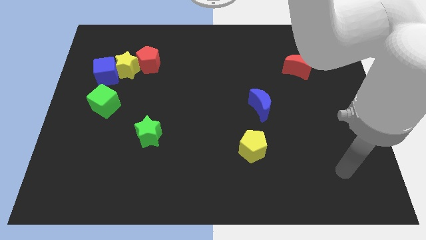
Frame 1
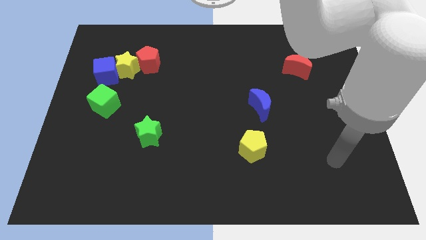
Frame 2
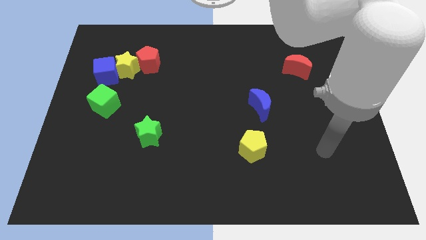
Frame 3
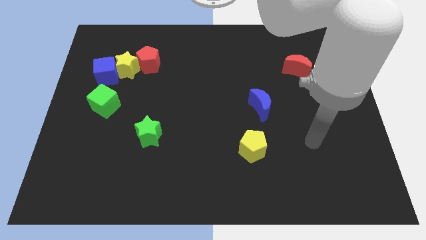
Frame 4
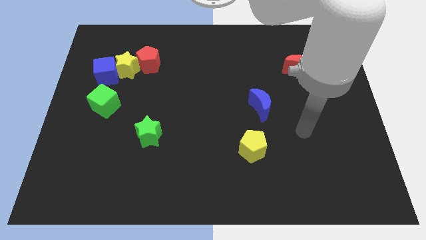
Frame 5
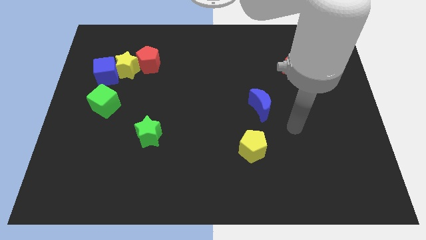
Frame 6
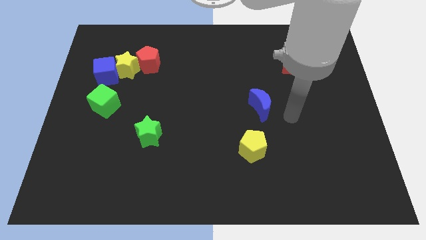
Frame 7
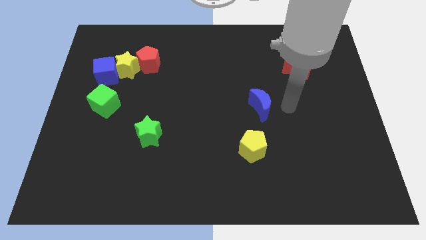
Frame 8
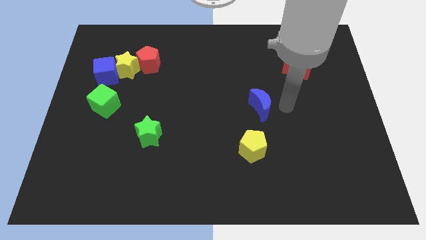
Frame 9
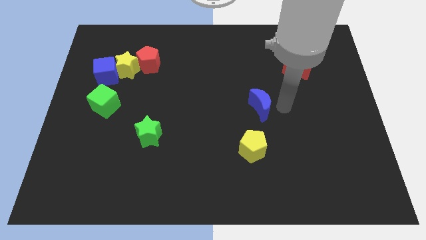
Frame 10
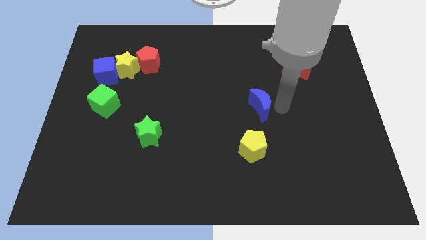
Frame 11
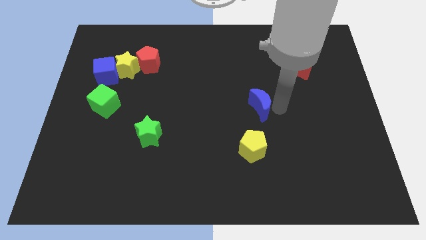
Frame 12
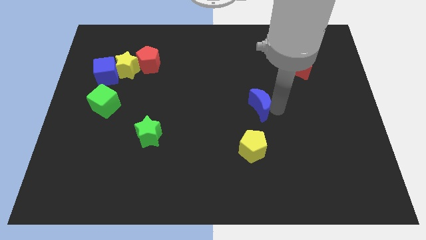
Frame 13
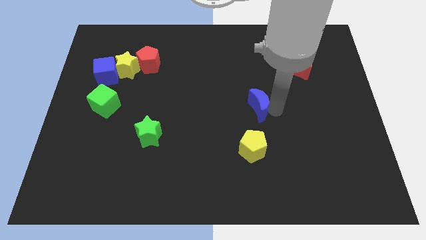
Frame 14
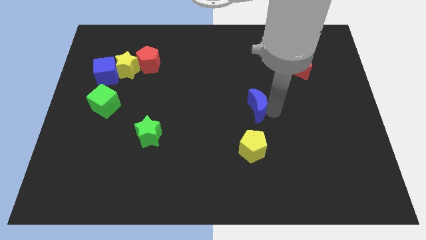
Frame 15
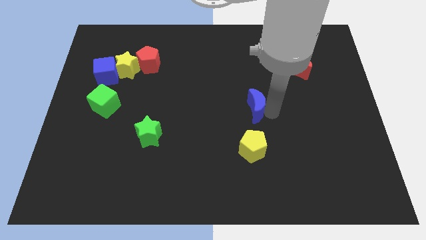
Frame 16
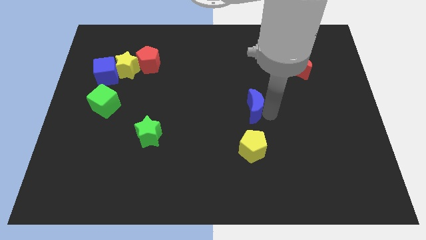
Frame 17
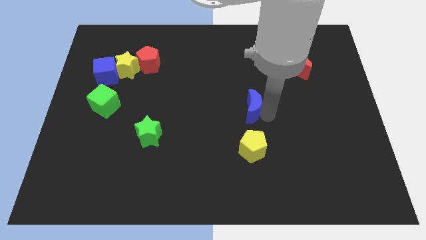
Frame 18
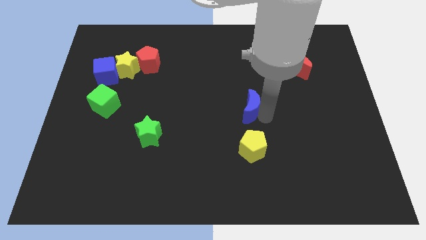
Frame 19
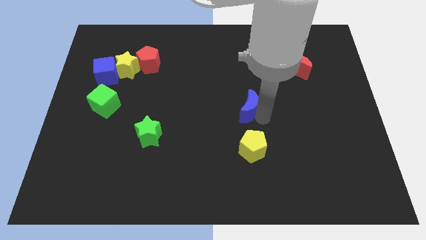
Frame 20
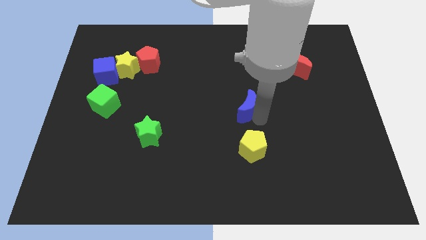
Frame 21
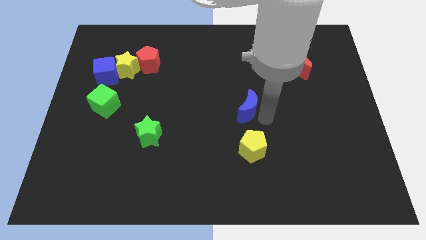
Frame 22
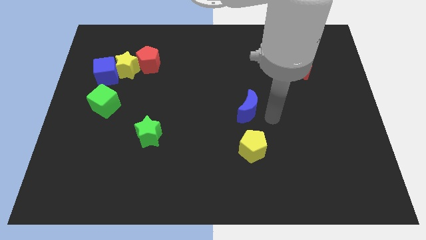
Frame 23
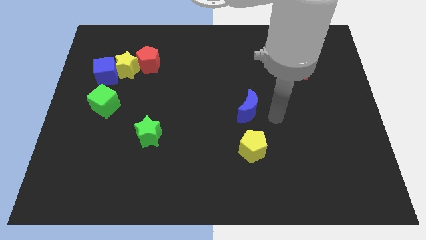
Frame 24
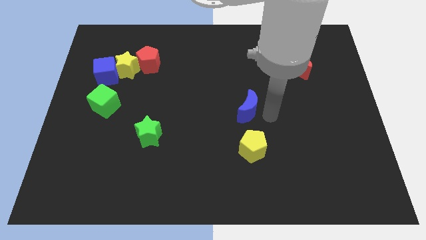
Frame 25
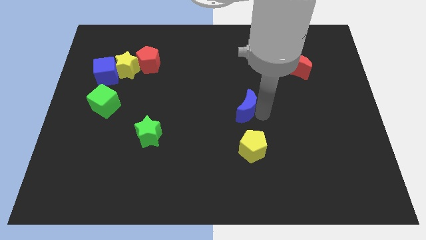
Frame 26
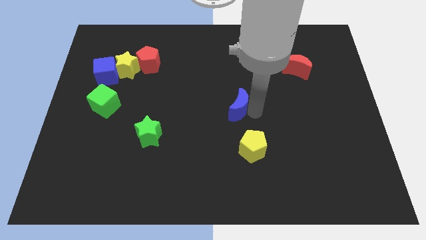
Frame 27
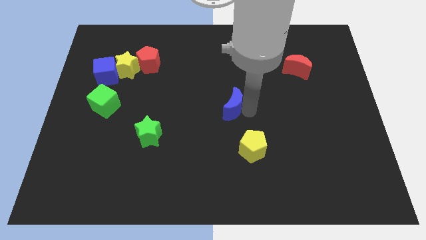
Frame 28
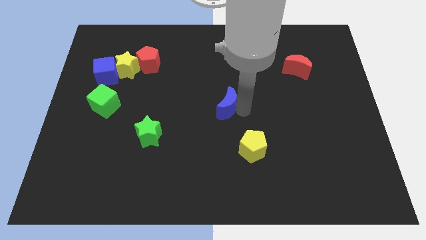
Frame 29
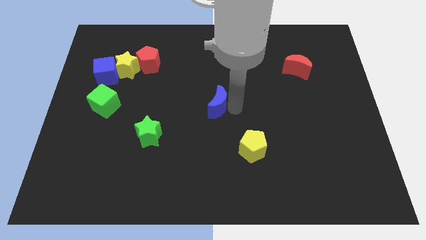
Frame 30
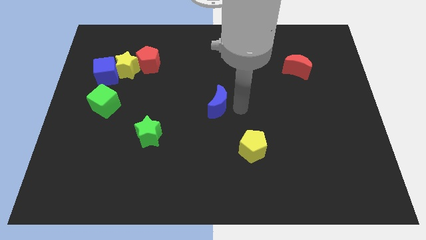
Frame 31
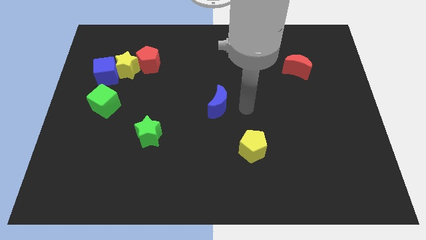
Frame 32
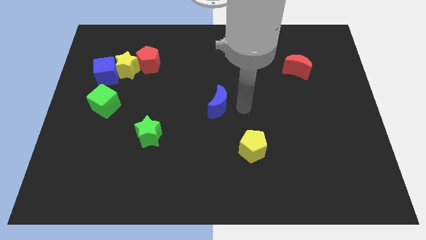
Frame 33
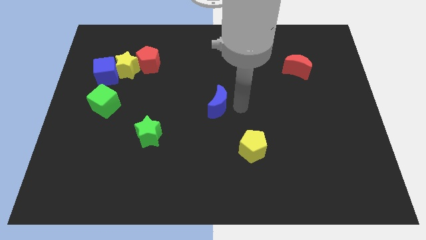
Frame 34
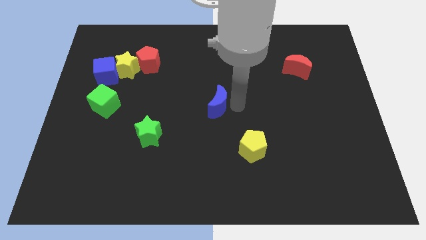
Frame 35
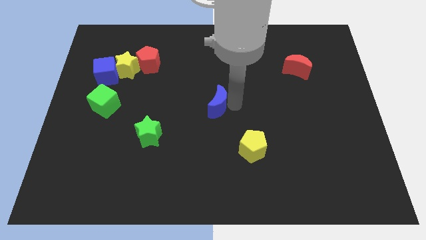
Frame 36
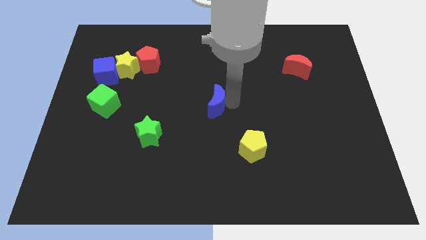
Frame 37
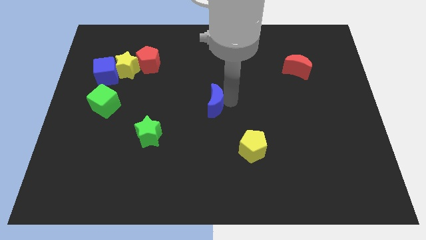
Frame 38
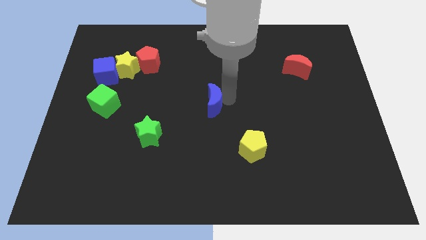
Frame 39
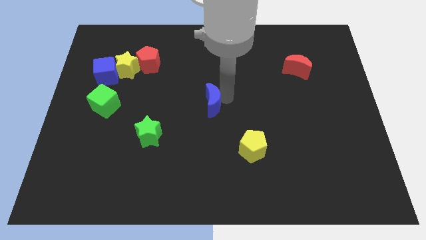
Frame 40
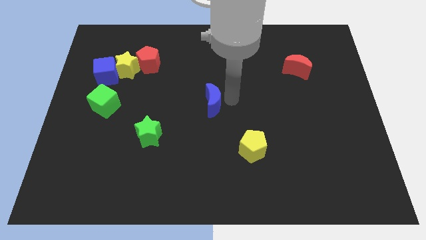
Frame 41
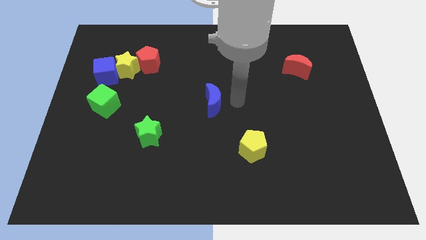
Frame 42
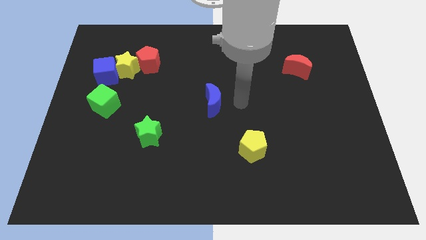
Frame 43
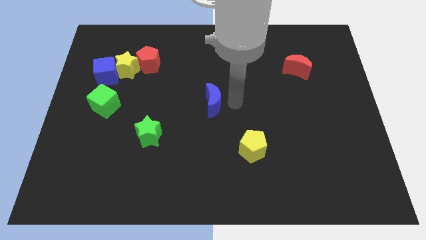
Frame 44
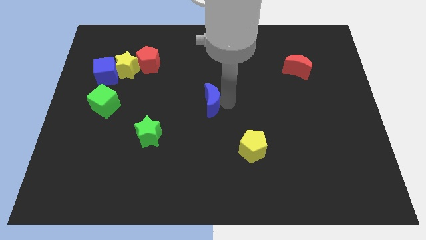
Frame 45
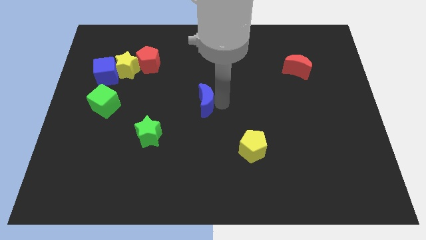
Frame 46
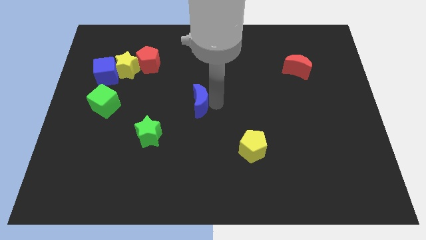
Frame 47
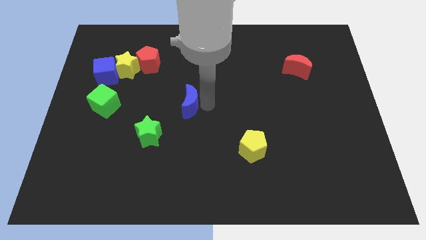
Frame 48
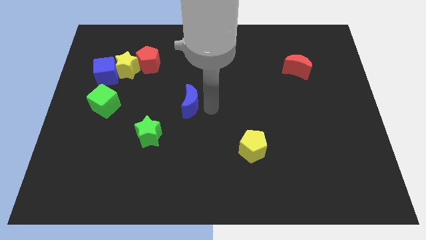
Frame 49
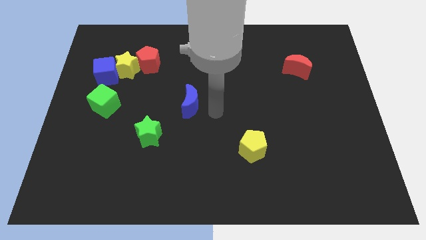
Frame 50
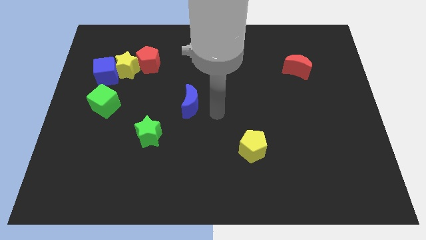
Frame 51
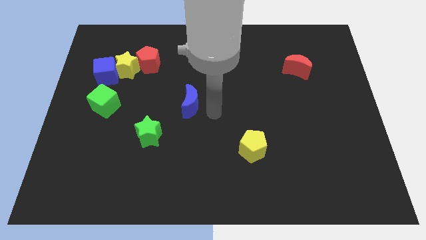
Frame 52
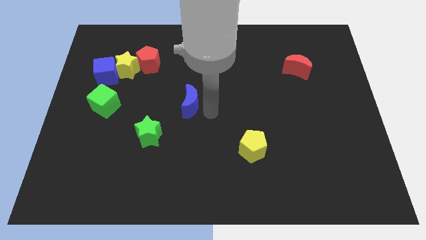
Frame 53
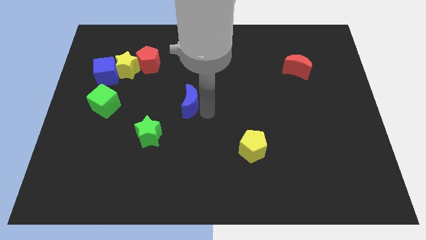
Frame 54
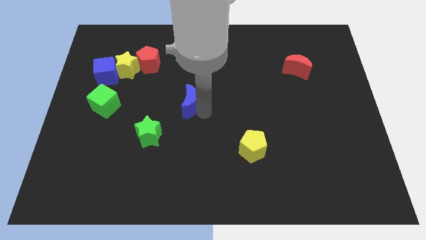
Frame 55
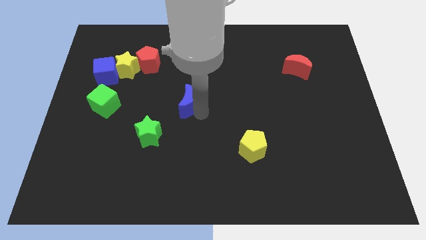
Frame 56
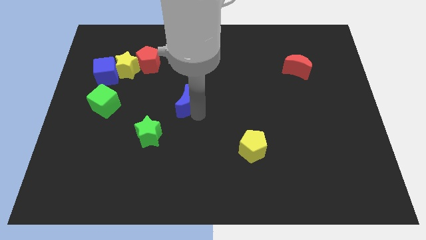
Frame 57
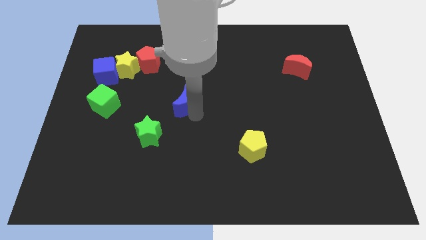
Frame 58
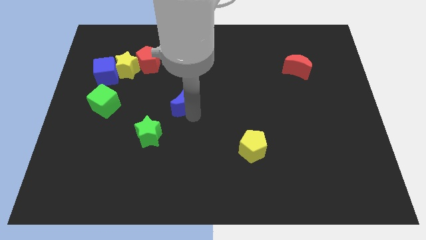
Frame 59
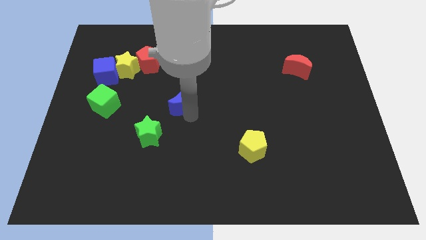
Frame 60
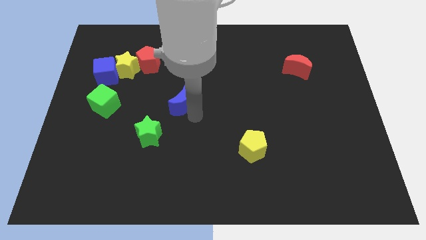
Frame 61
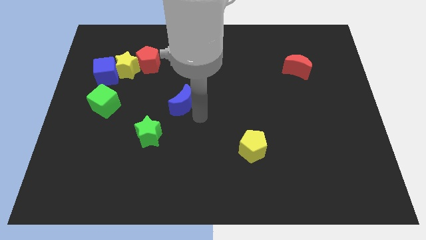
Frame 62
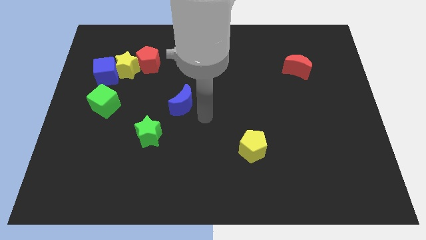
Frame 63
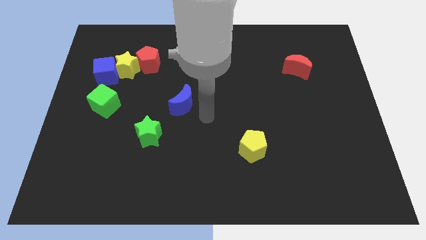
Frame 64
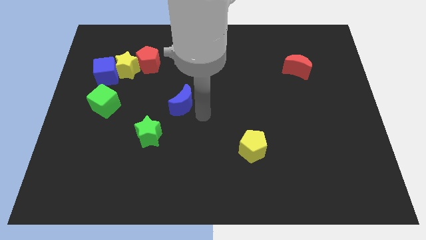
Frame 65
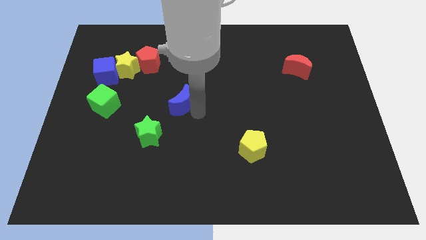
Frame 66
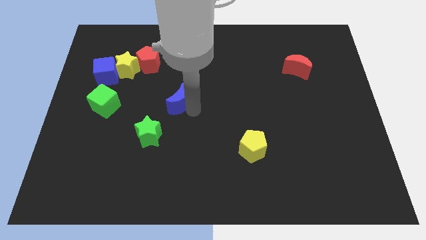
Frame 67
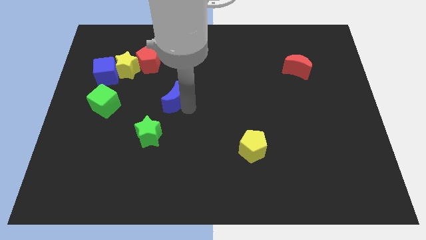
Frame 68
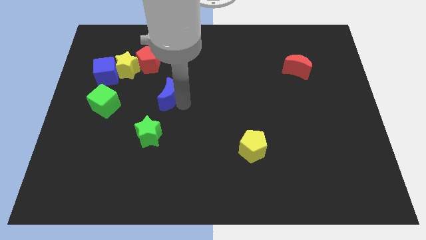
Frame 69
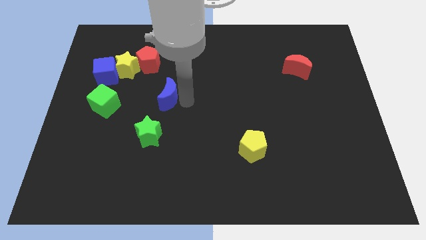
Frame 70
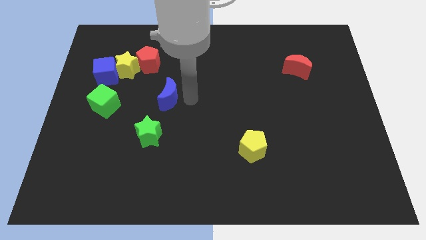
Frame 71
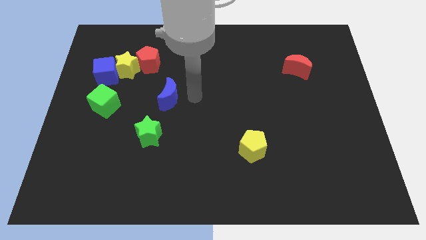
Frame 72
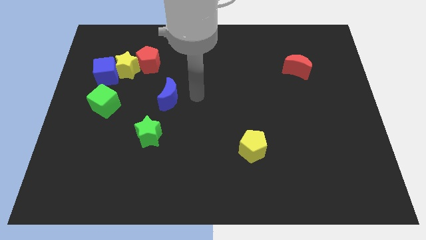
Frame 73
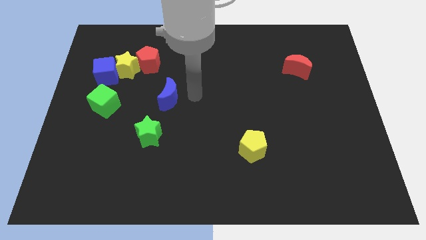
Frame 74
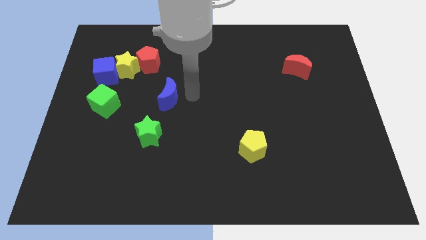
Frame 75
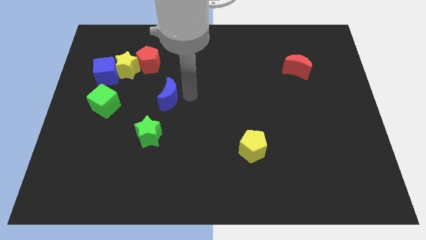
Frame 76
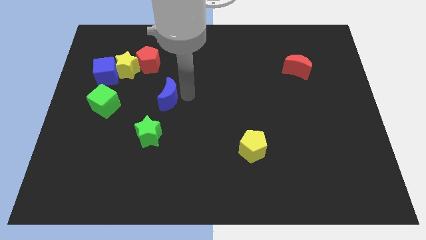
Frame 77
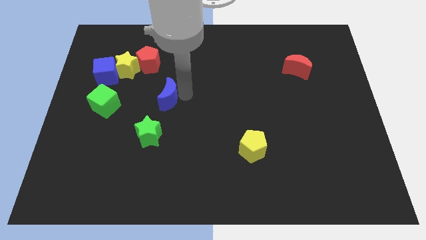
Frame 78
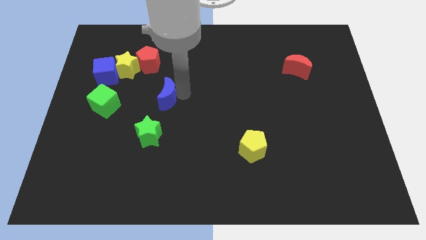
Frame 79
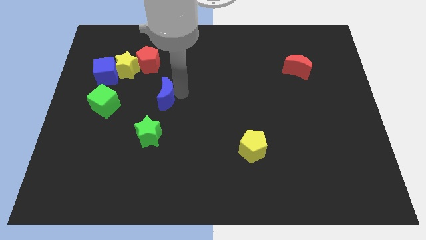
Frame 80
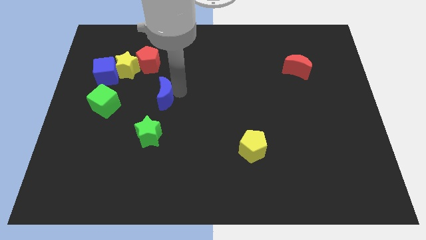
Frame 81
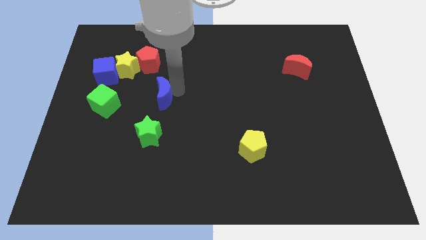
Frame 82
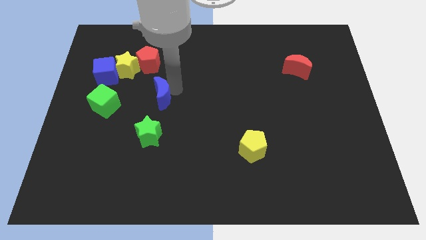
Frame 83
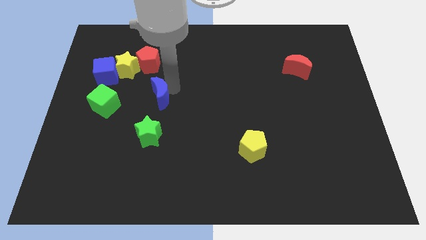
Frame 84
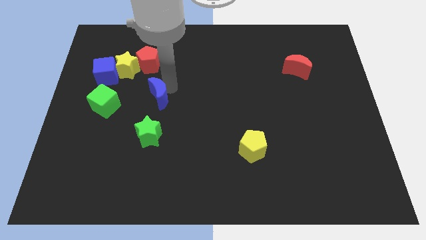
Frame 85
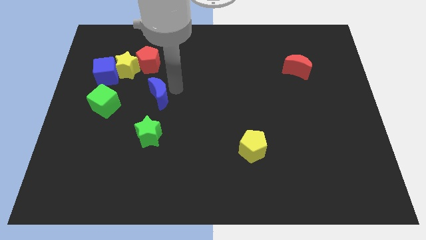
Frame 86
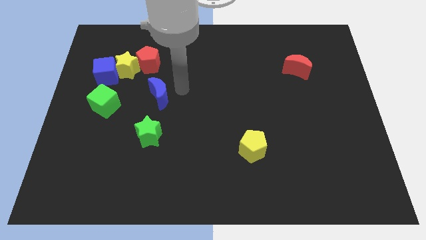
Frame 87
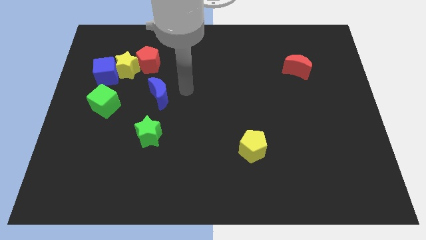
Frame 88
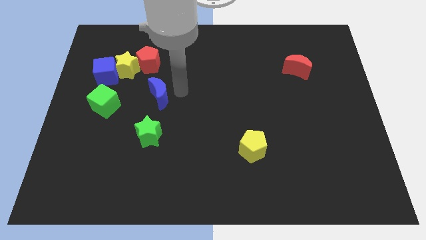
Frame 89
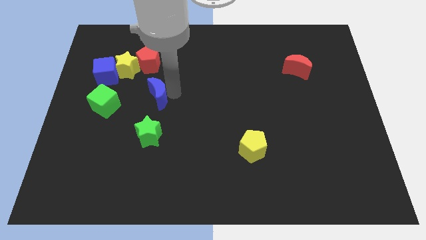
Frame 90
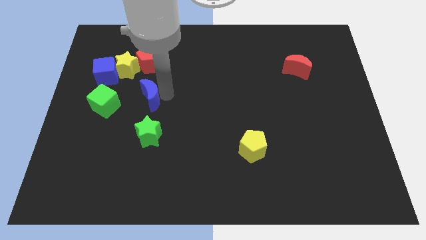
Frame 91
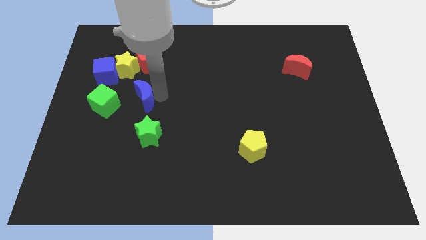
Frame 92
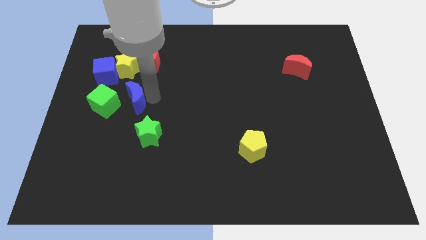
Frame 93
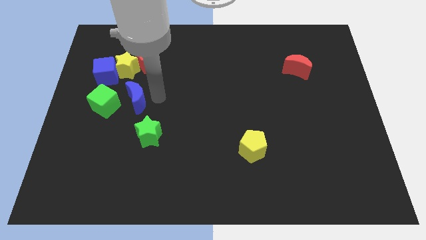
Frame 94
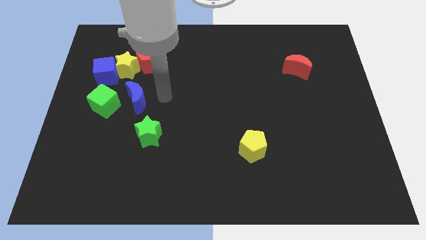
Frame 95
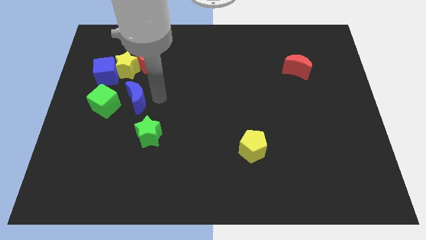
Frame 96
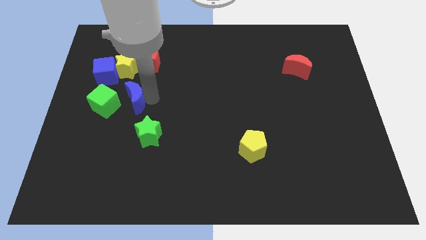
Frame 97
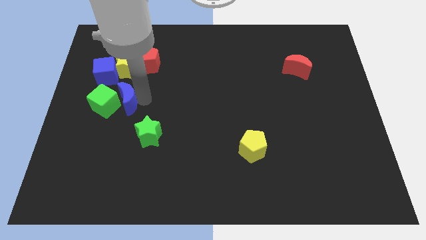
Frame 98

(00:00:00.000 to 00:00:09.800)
push the blue moon towards the green cube
